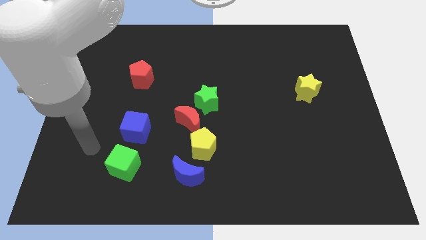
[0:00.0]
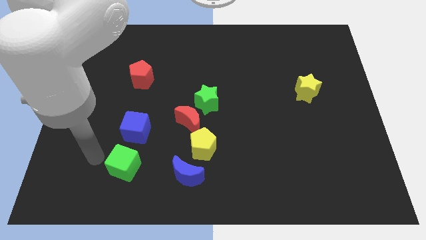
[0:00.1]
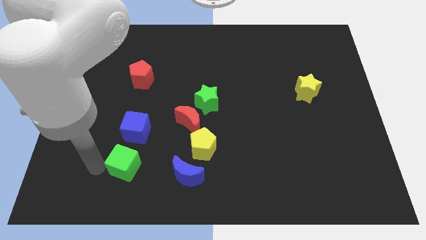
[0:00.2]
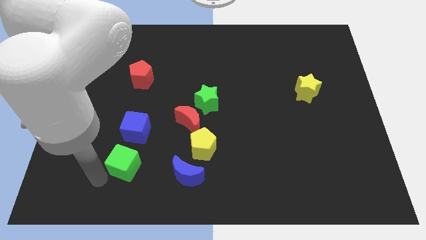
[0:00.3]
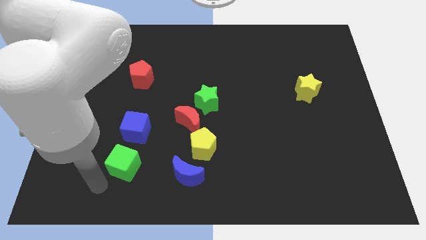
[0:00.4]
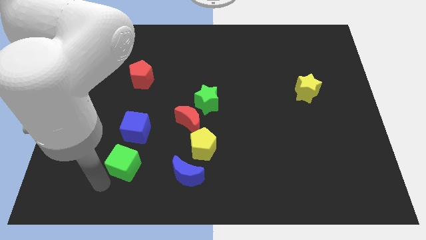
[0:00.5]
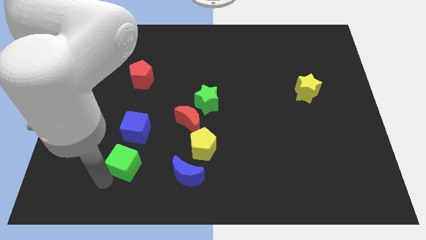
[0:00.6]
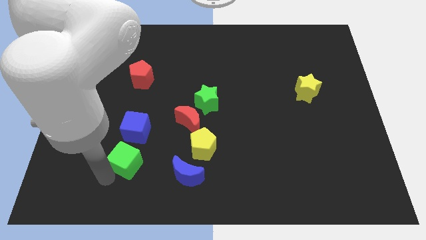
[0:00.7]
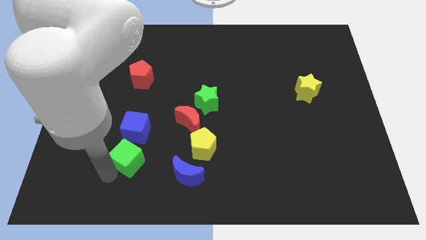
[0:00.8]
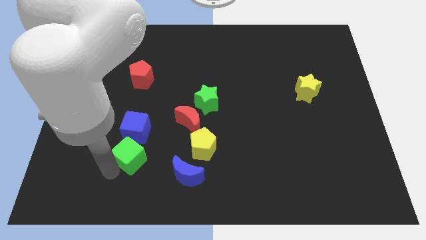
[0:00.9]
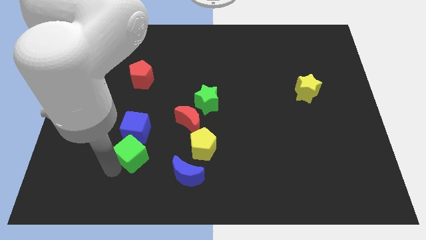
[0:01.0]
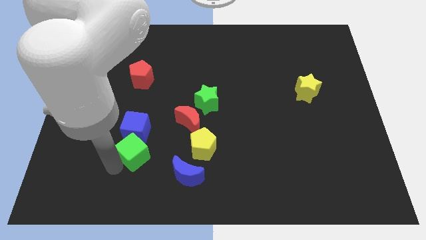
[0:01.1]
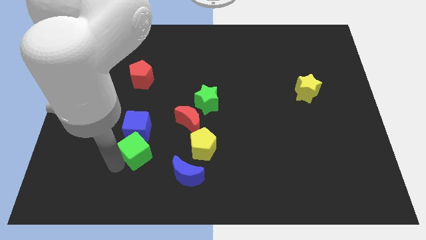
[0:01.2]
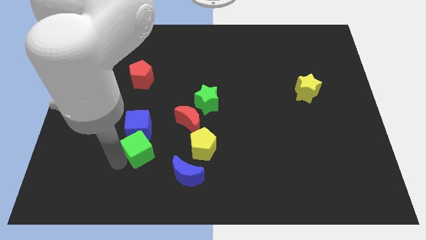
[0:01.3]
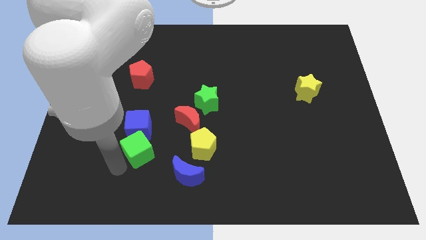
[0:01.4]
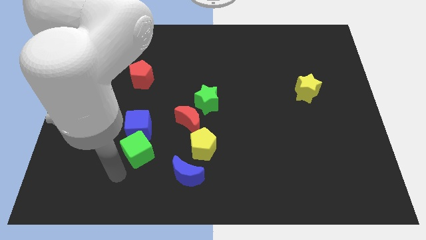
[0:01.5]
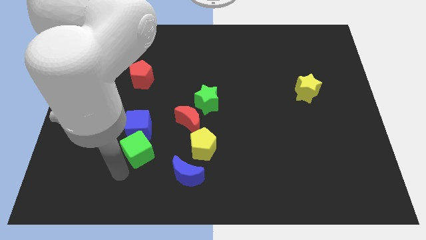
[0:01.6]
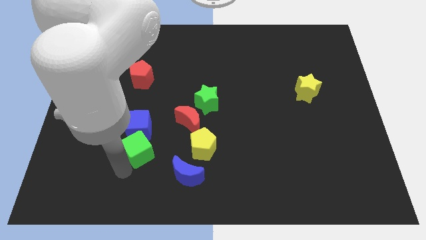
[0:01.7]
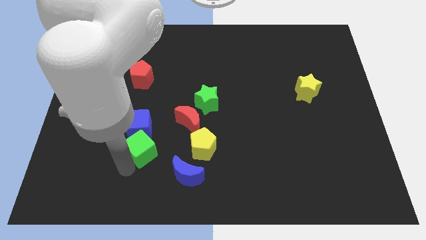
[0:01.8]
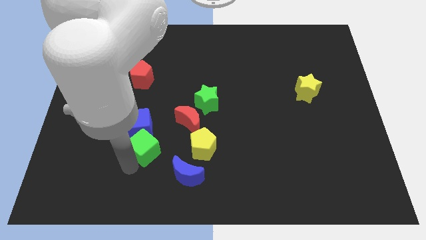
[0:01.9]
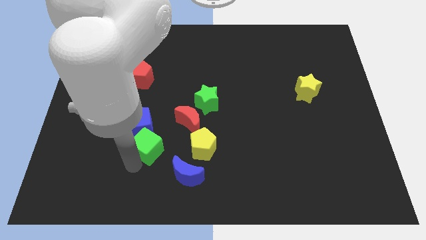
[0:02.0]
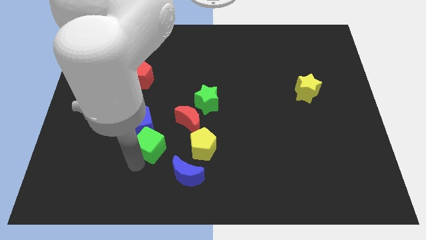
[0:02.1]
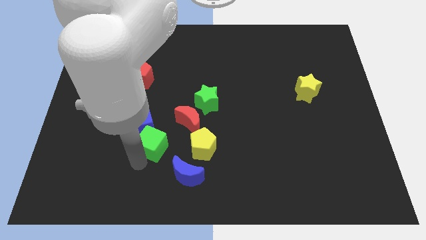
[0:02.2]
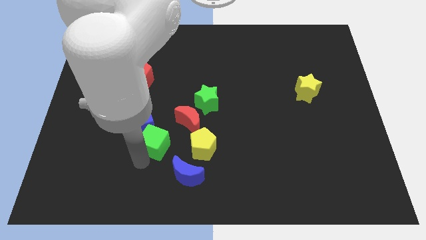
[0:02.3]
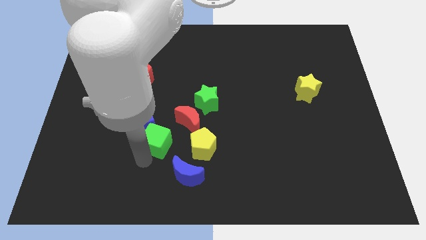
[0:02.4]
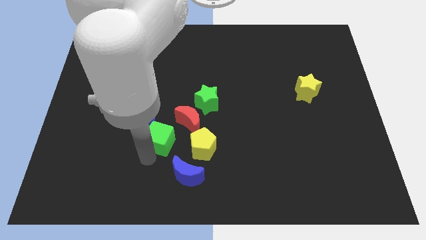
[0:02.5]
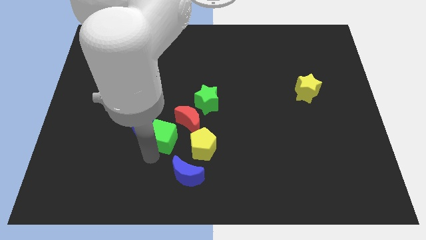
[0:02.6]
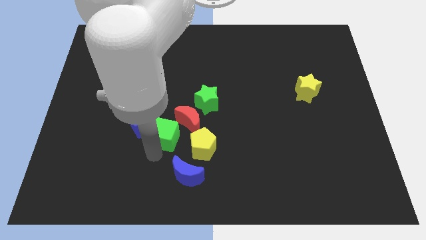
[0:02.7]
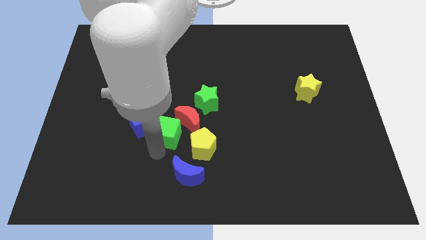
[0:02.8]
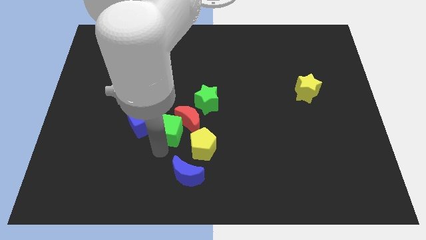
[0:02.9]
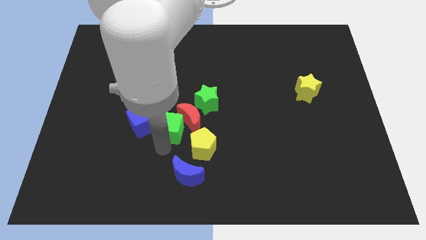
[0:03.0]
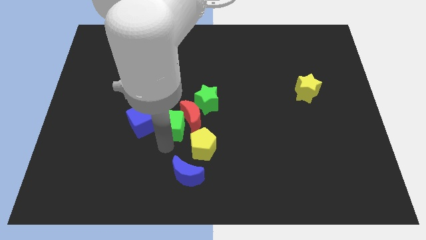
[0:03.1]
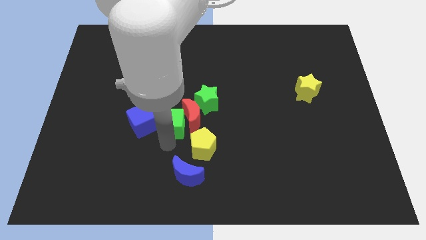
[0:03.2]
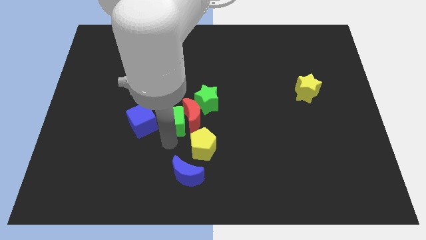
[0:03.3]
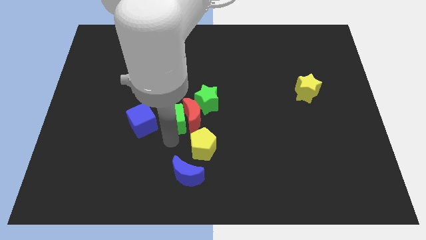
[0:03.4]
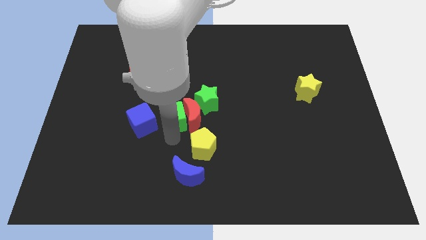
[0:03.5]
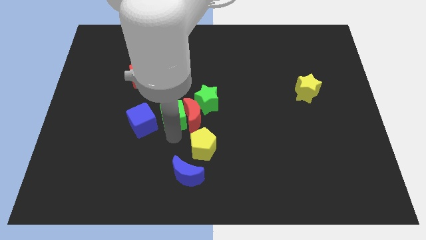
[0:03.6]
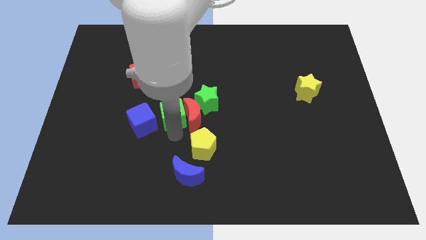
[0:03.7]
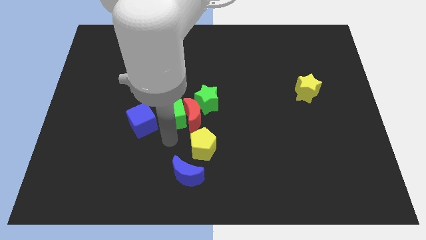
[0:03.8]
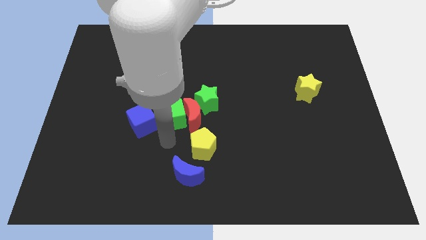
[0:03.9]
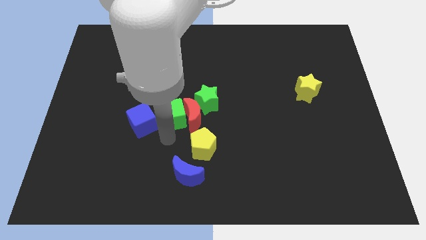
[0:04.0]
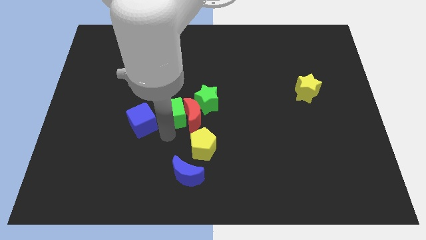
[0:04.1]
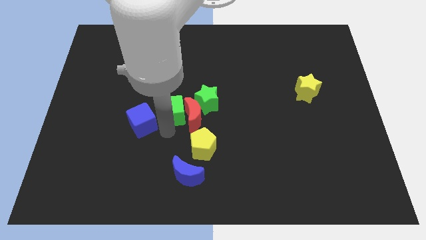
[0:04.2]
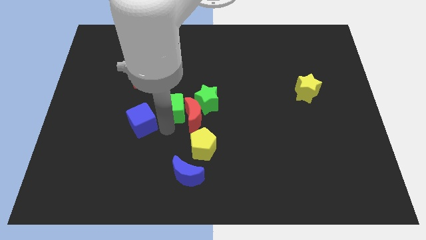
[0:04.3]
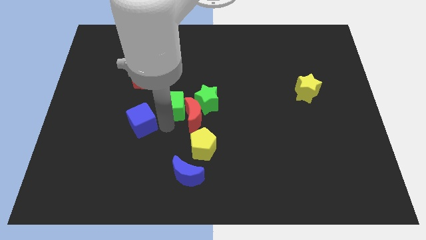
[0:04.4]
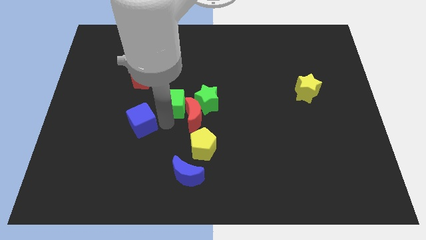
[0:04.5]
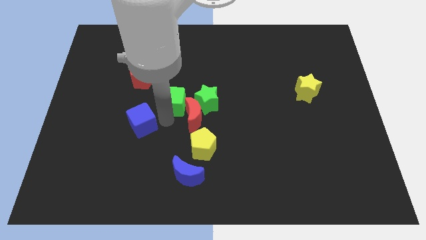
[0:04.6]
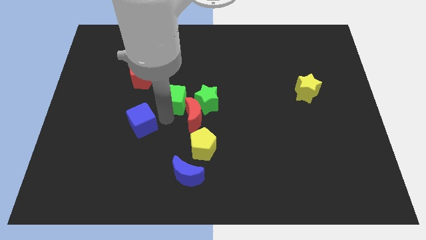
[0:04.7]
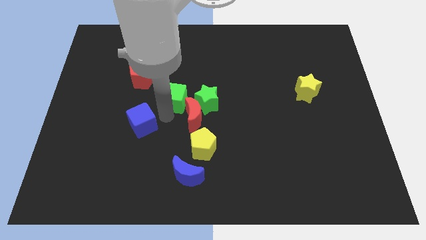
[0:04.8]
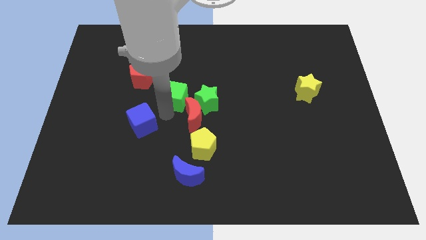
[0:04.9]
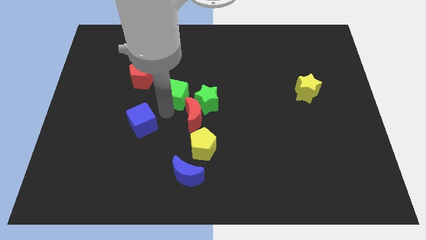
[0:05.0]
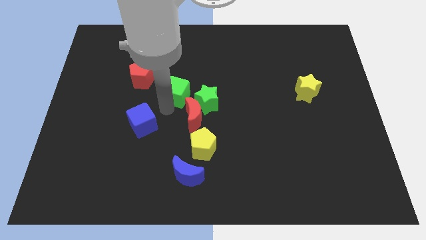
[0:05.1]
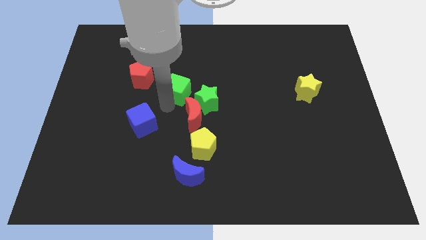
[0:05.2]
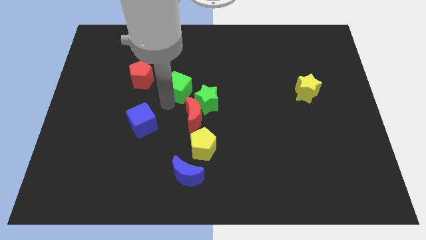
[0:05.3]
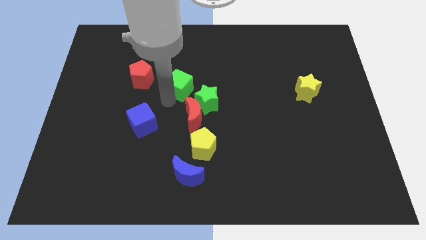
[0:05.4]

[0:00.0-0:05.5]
push the green cube up and right diagonally

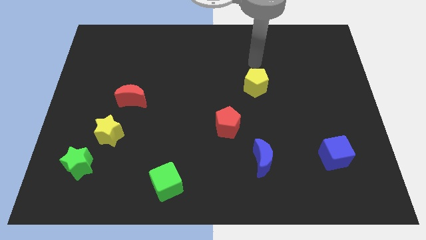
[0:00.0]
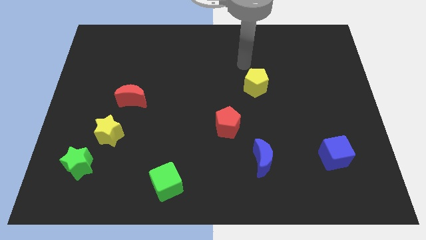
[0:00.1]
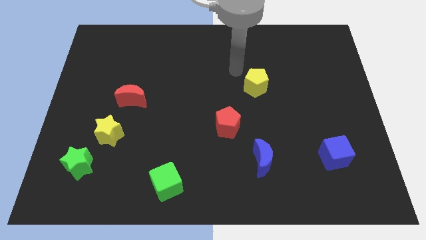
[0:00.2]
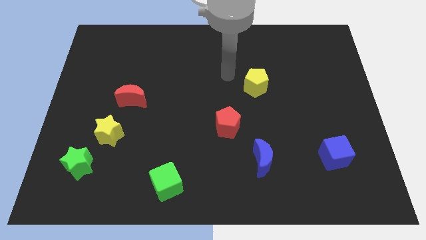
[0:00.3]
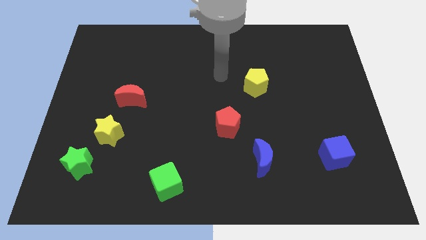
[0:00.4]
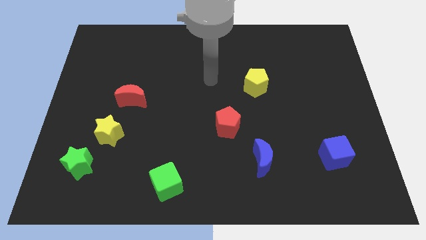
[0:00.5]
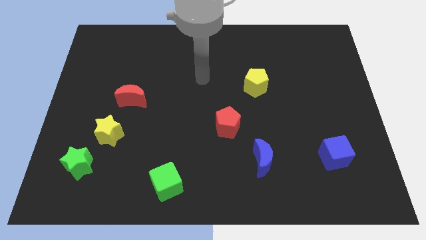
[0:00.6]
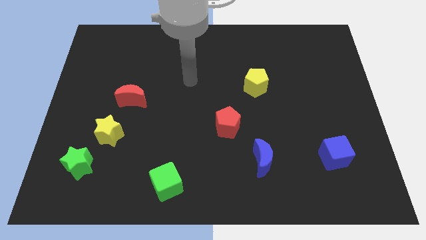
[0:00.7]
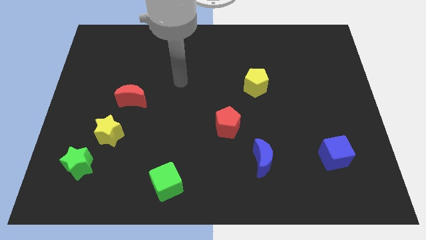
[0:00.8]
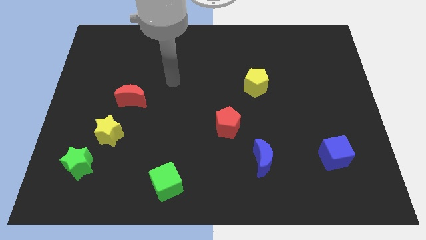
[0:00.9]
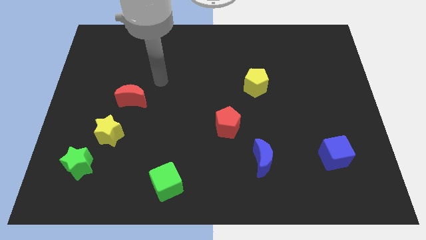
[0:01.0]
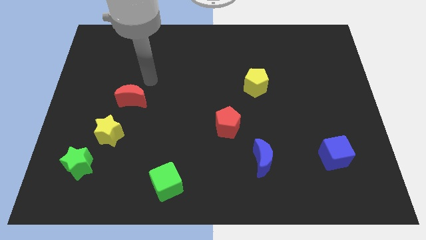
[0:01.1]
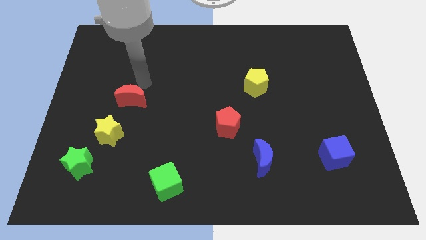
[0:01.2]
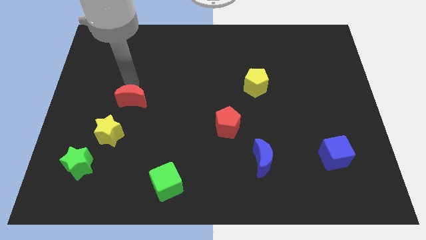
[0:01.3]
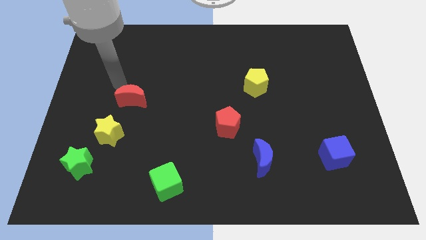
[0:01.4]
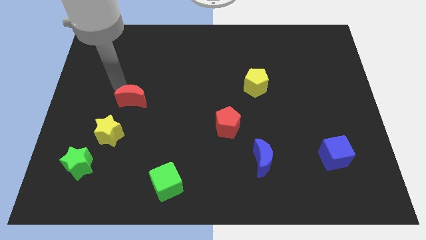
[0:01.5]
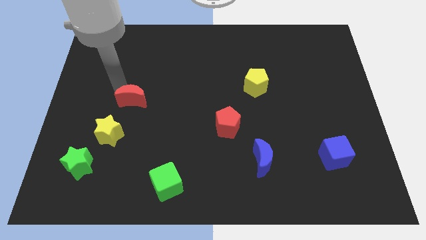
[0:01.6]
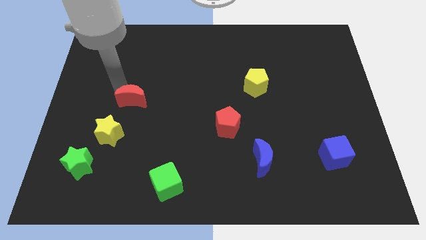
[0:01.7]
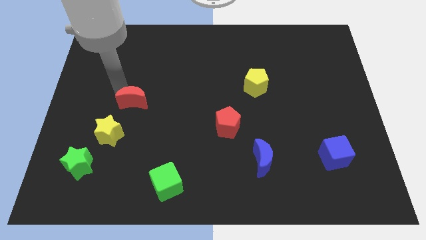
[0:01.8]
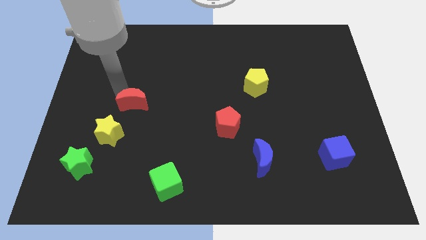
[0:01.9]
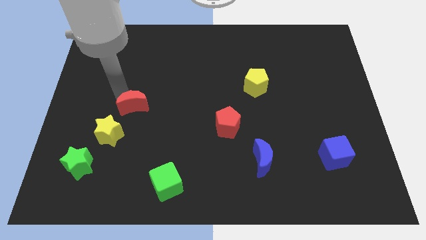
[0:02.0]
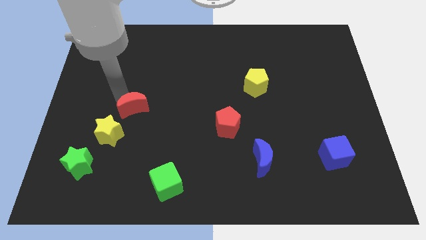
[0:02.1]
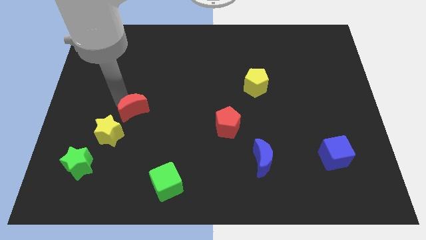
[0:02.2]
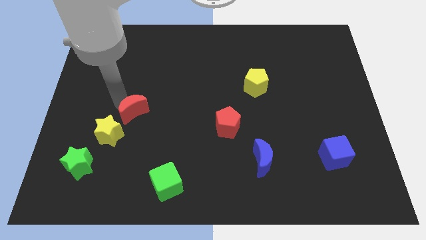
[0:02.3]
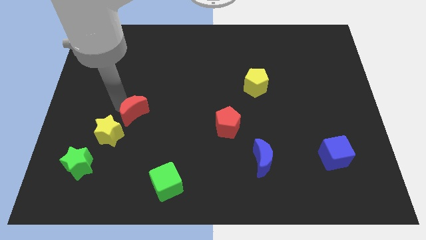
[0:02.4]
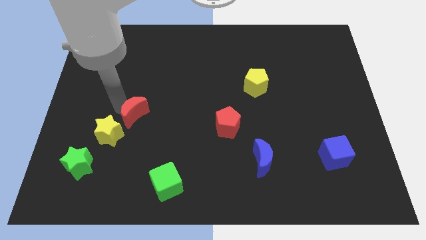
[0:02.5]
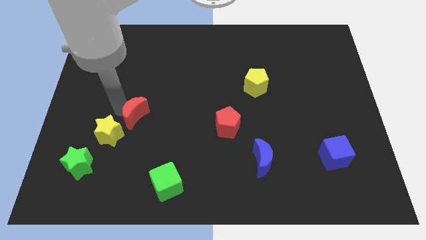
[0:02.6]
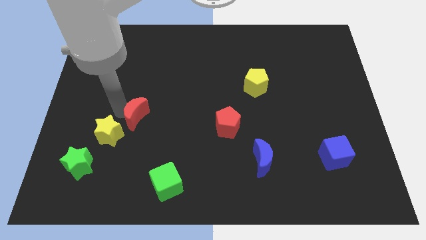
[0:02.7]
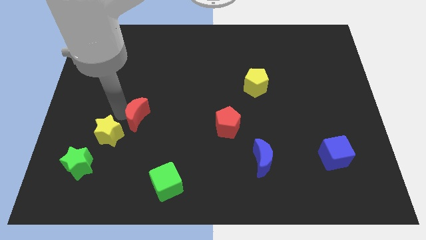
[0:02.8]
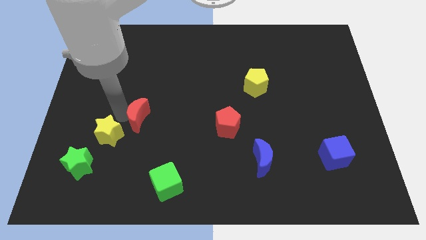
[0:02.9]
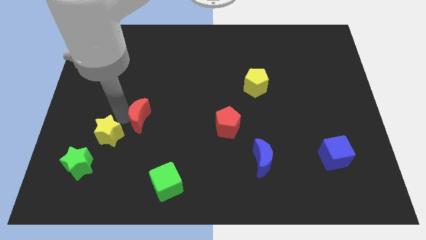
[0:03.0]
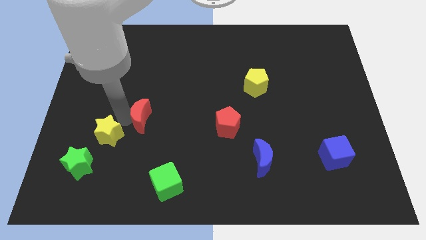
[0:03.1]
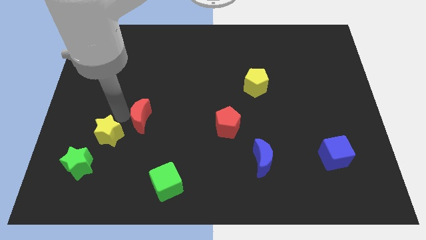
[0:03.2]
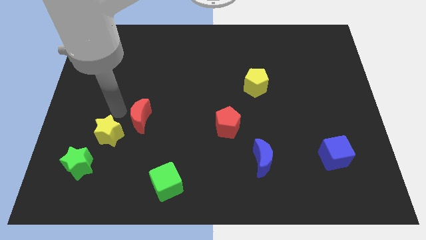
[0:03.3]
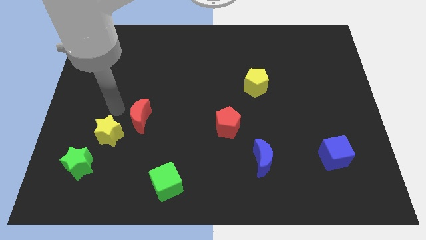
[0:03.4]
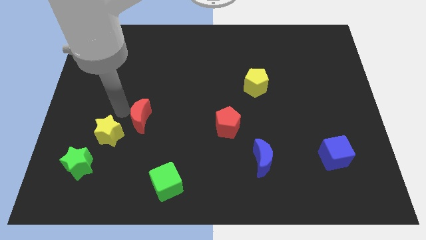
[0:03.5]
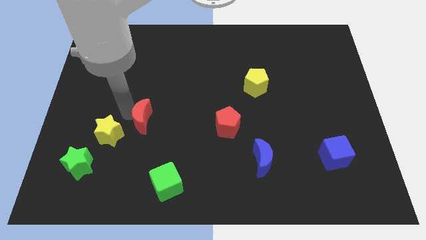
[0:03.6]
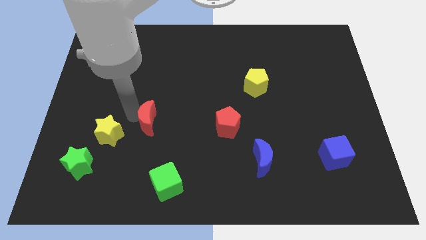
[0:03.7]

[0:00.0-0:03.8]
slide the red moon a bit diagonally downwards and right
